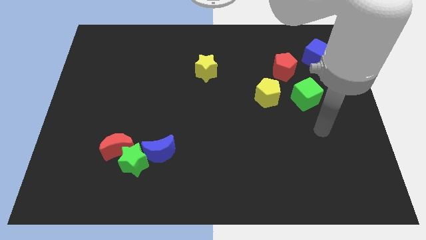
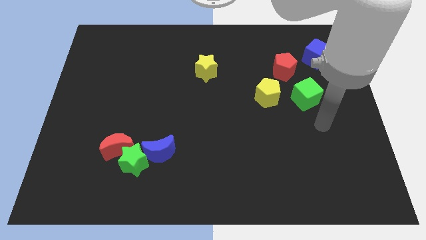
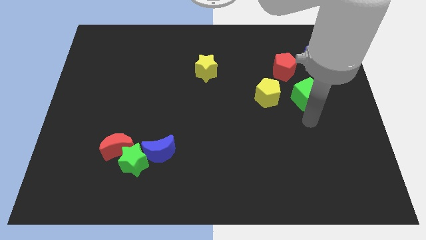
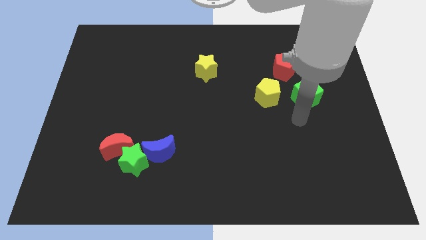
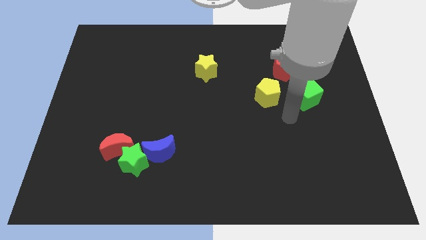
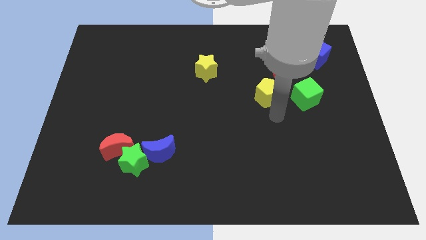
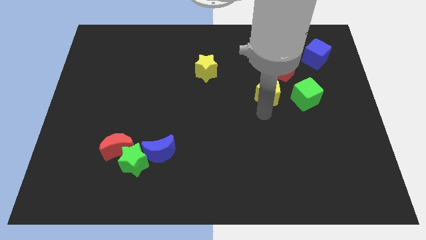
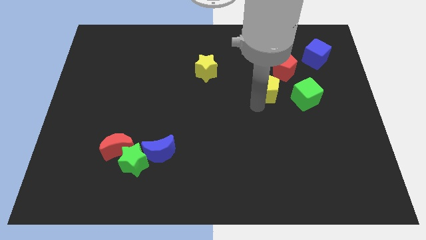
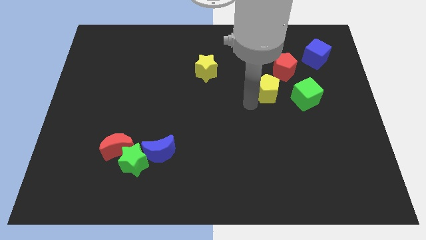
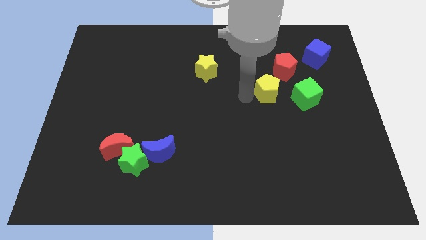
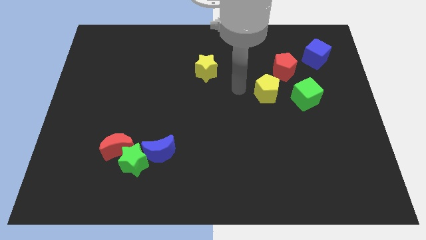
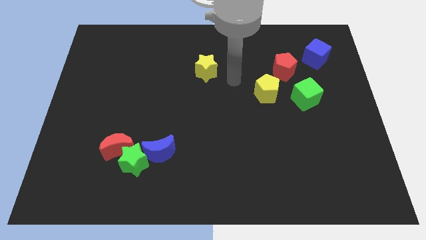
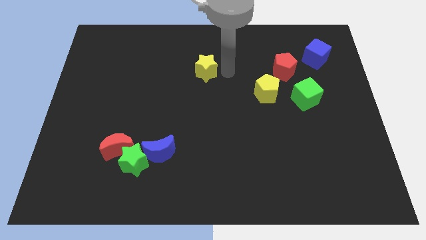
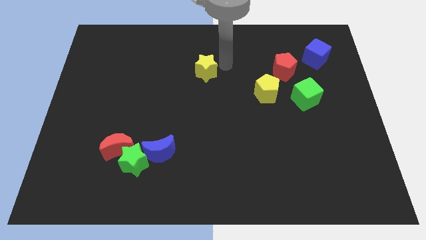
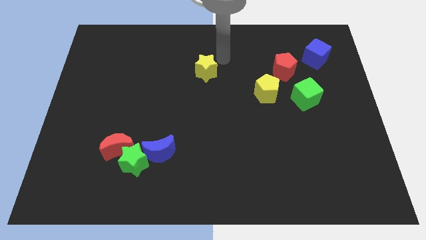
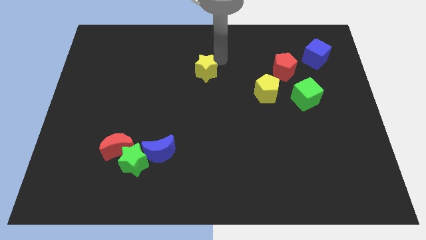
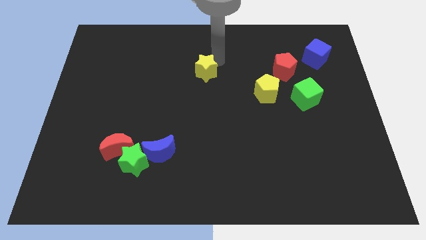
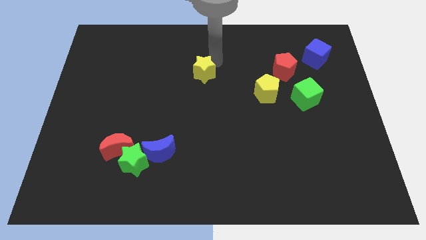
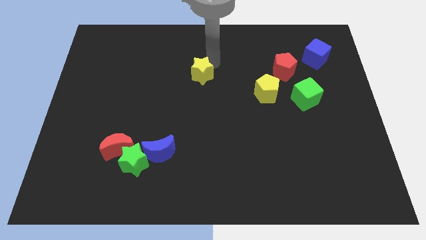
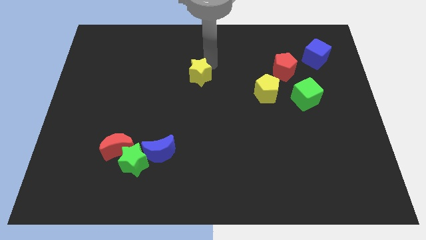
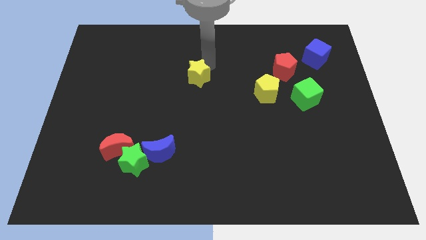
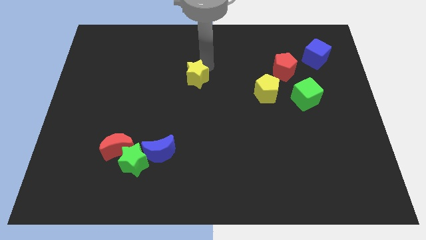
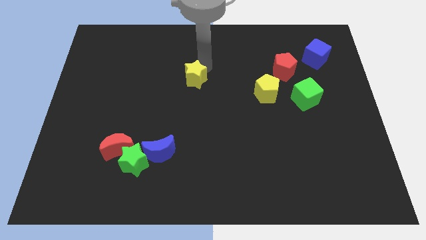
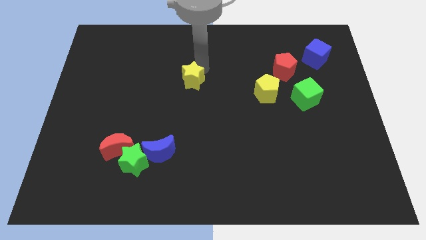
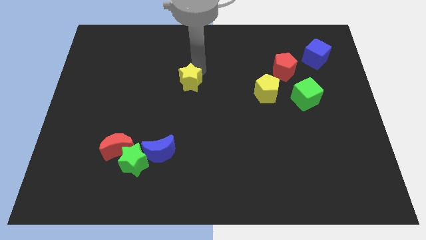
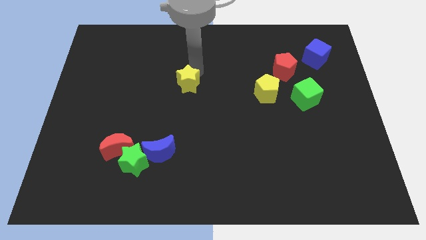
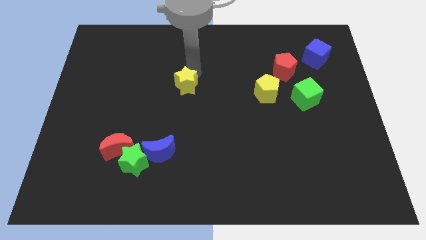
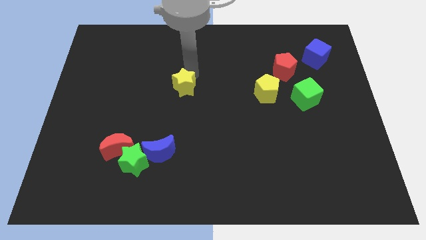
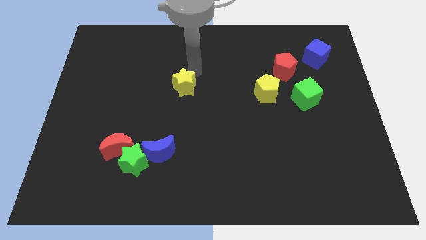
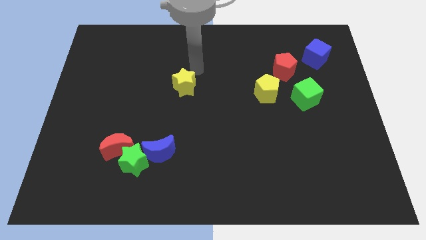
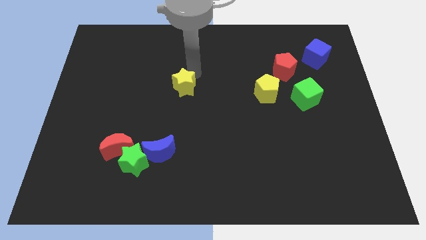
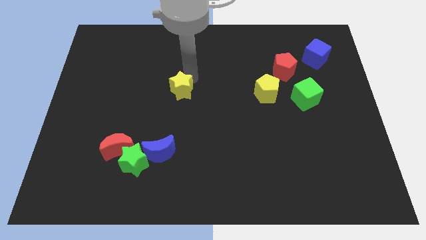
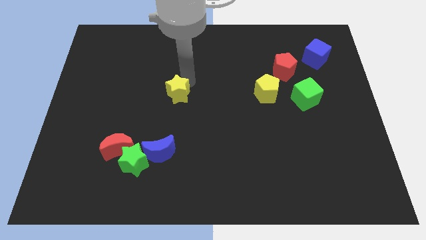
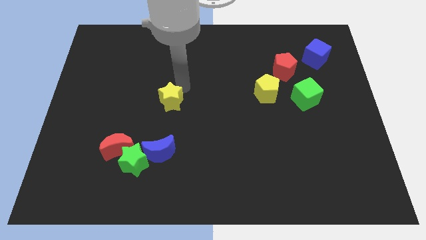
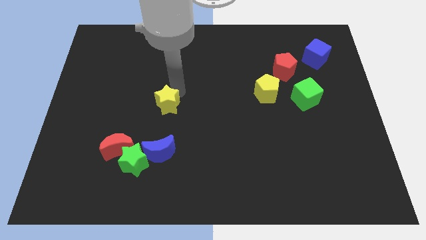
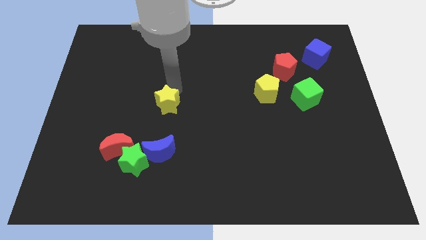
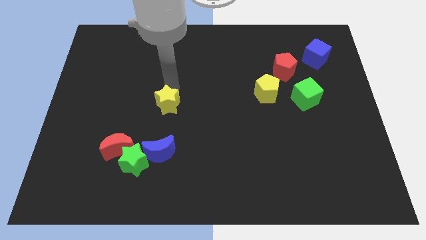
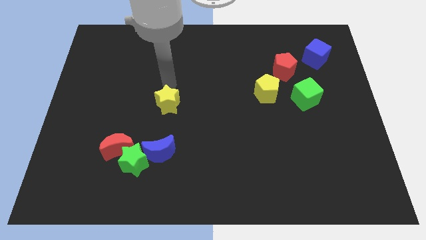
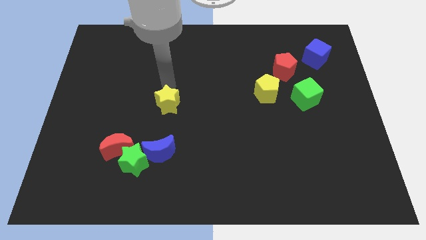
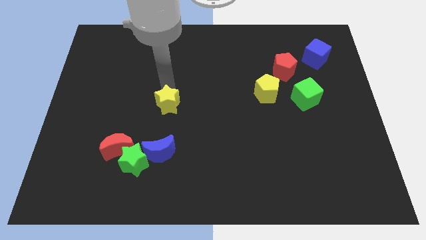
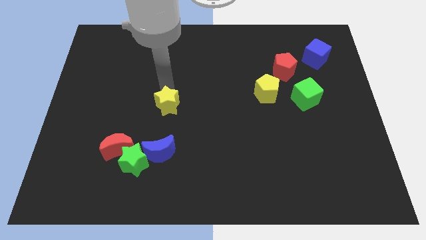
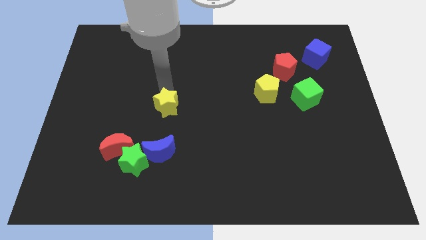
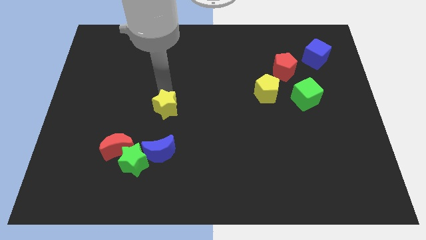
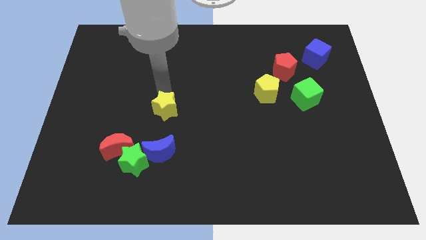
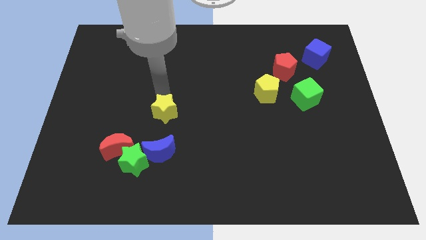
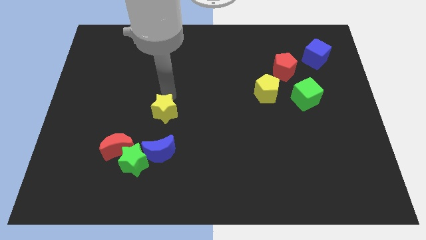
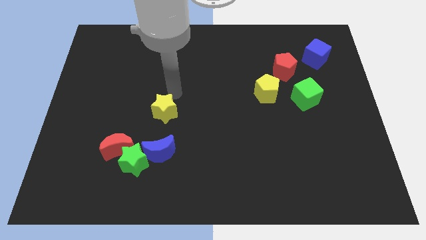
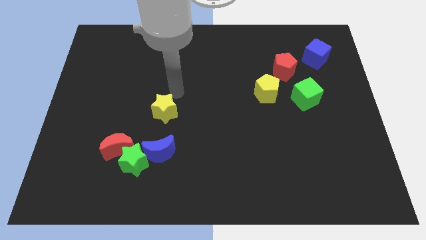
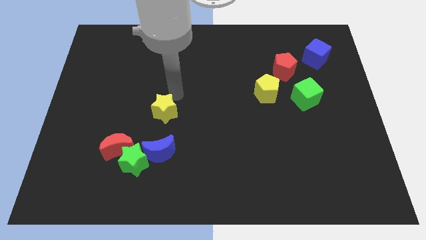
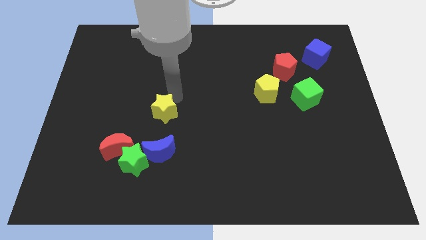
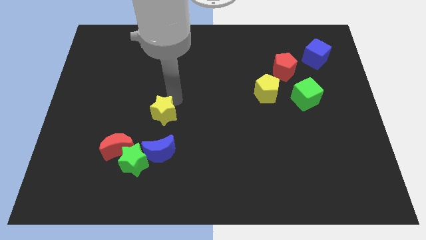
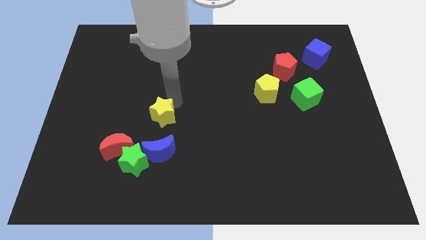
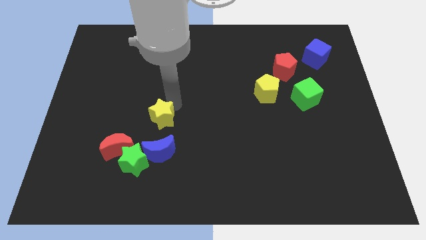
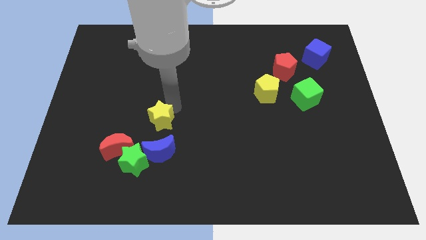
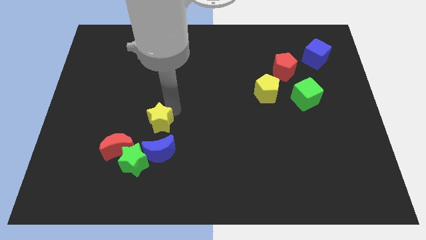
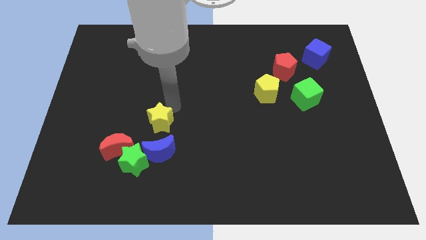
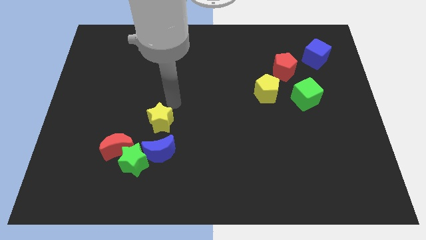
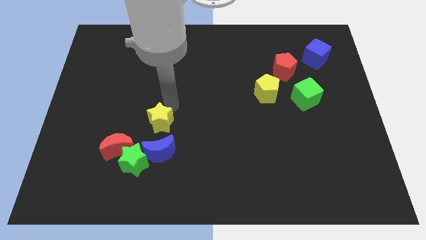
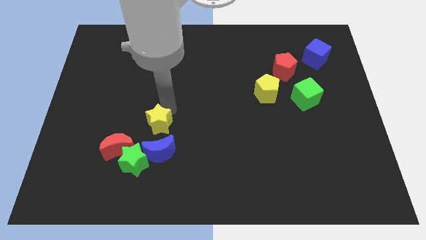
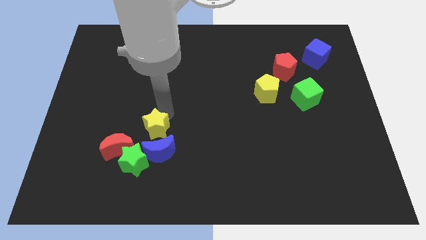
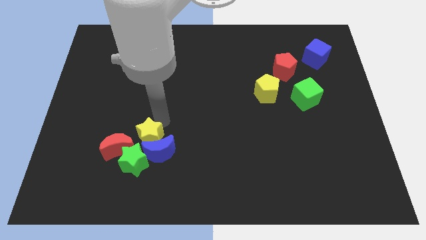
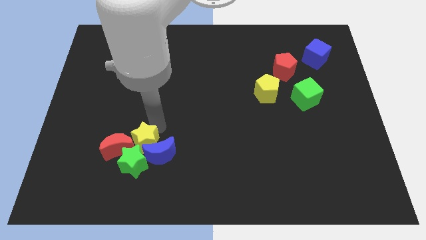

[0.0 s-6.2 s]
slide the yellow star to the green star

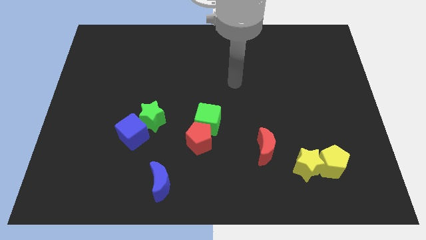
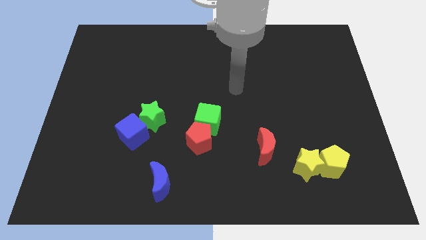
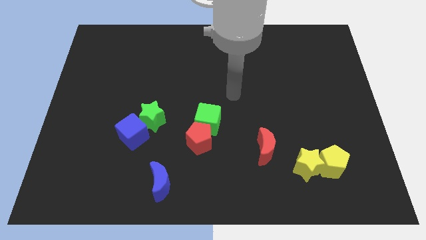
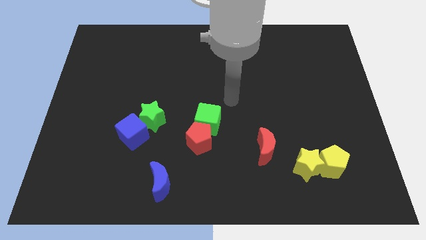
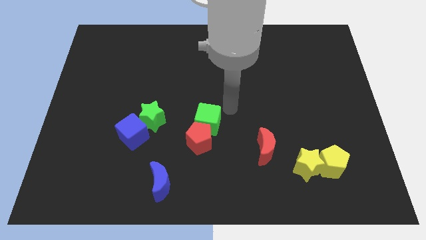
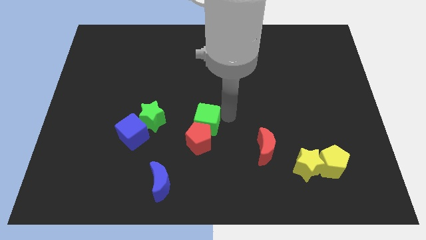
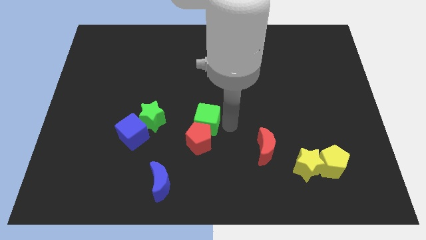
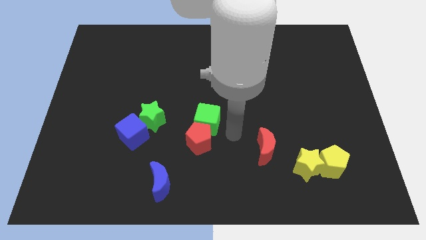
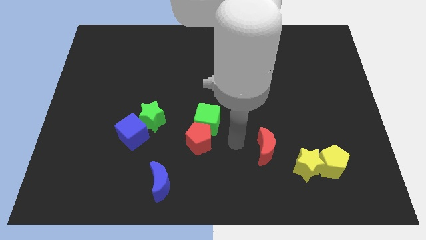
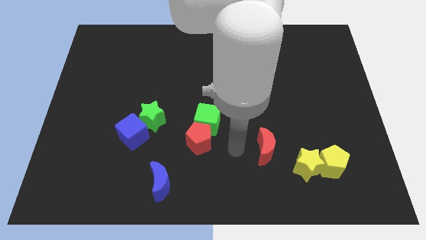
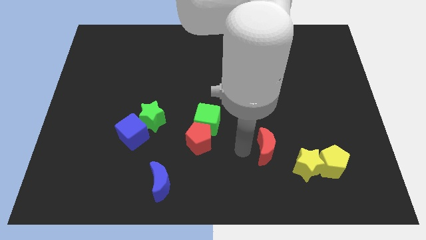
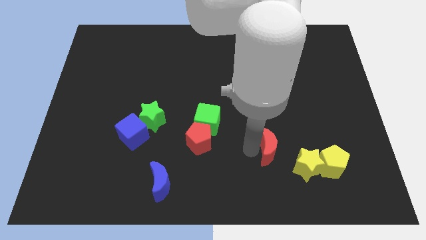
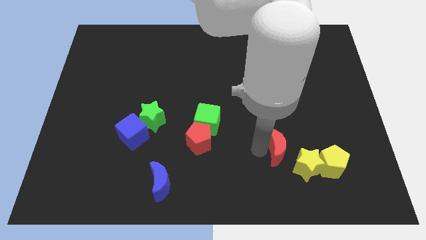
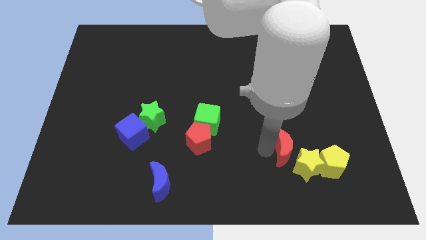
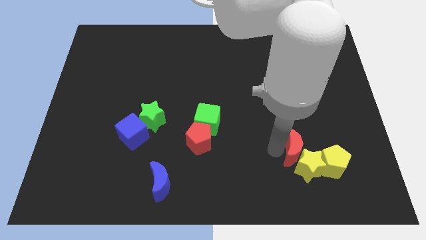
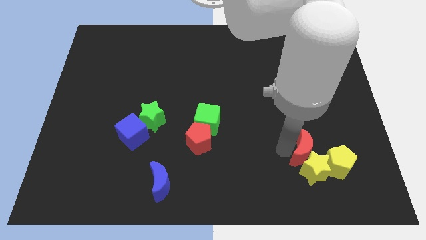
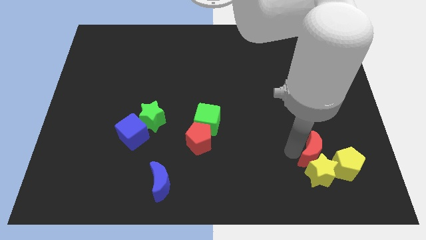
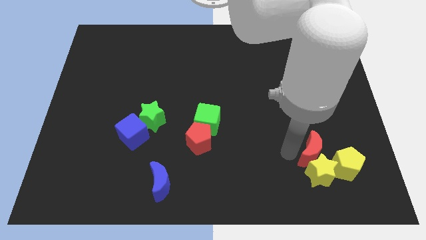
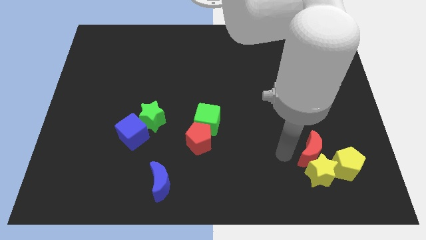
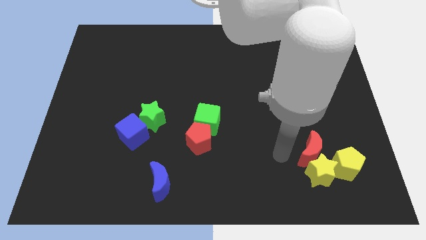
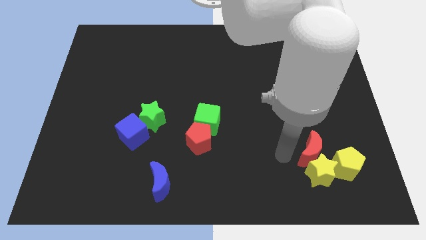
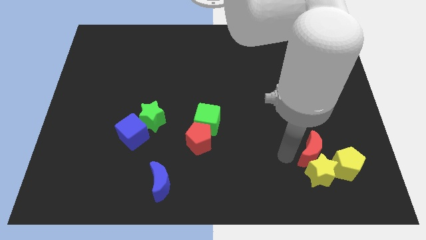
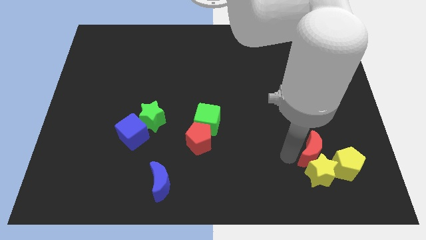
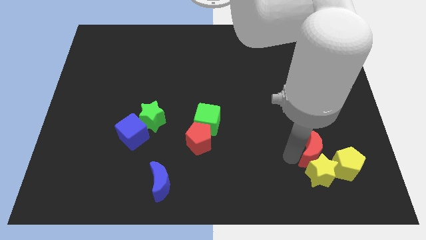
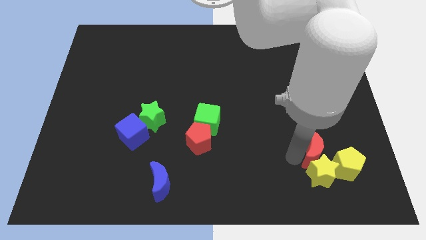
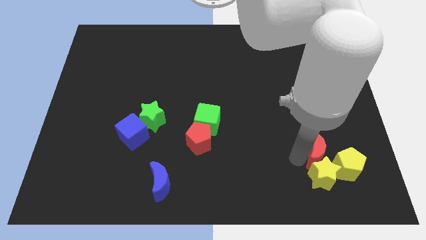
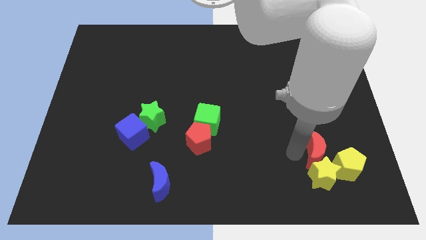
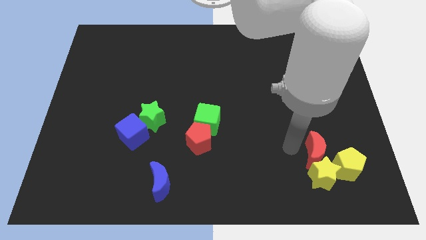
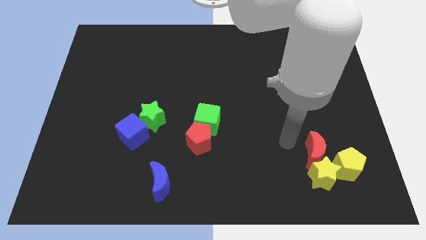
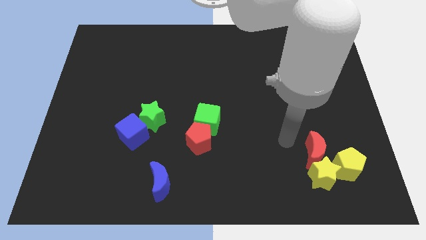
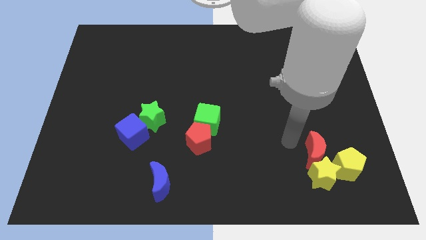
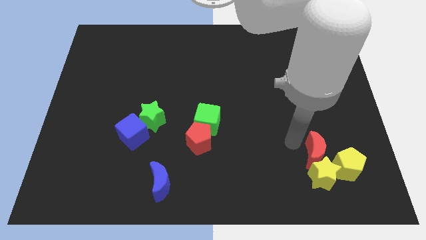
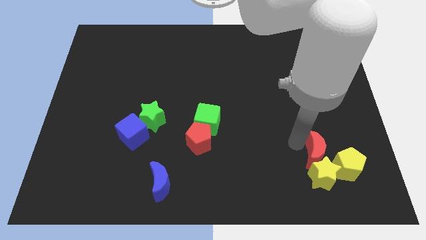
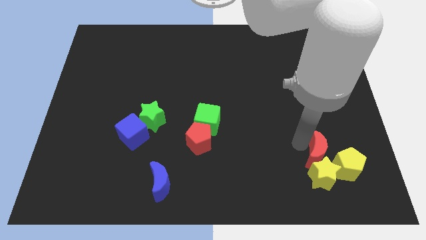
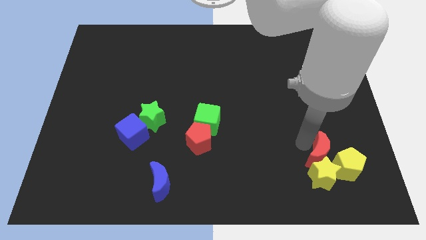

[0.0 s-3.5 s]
push the red moon next to the yellow pentagon
